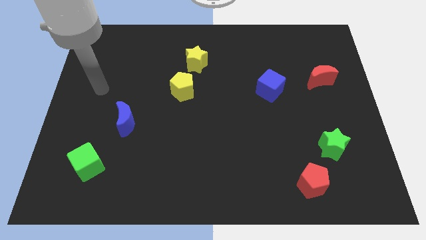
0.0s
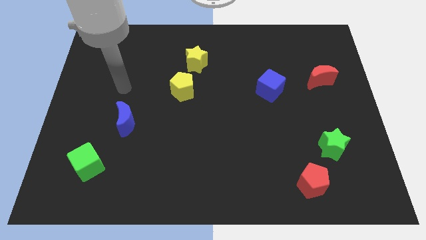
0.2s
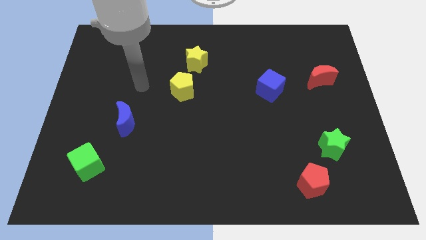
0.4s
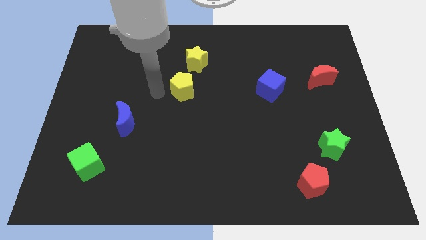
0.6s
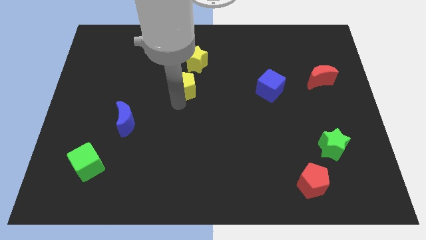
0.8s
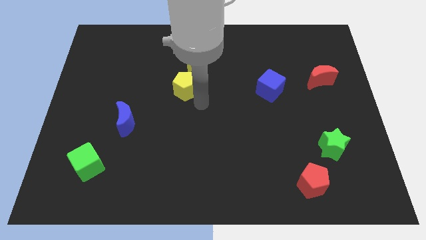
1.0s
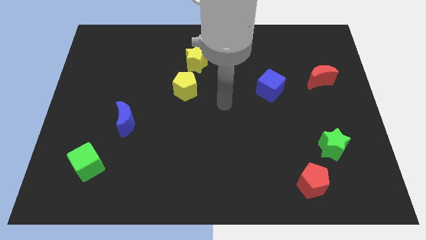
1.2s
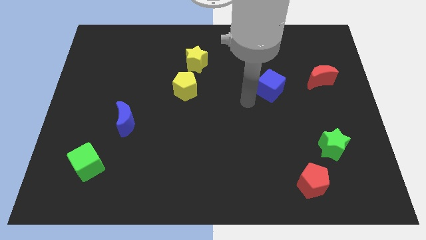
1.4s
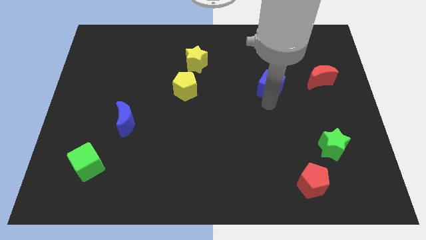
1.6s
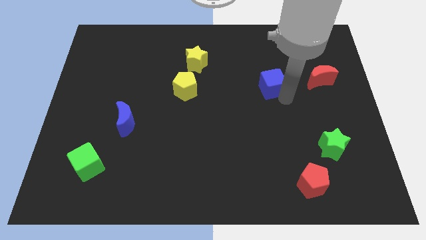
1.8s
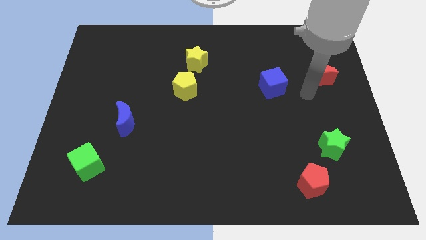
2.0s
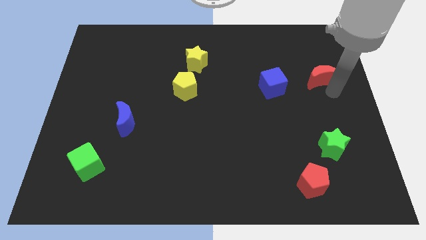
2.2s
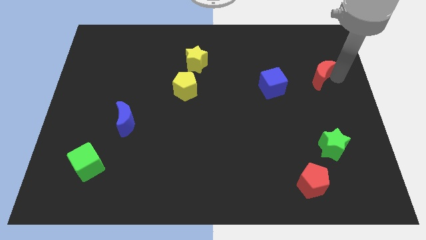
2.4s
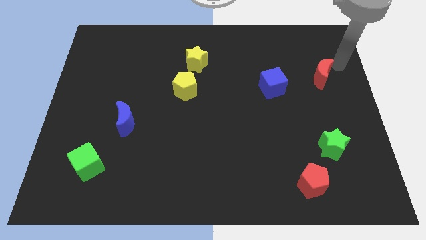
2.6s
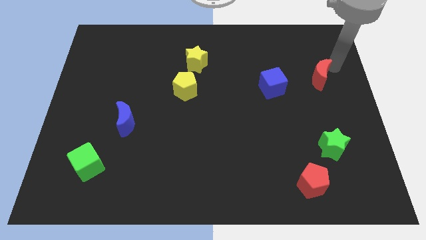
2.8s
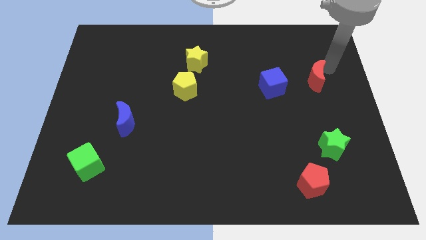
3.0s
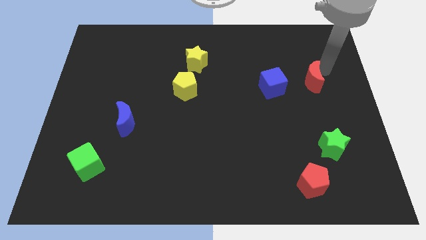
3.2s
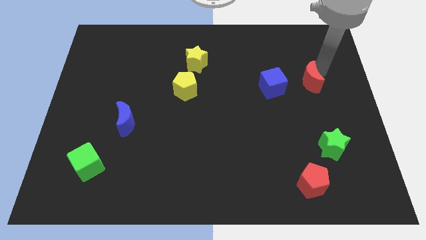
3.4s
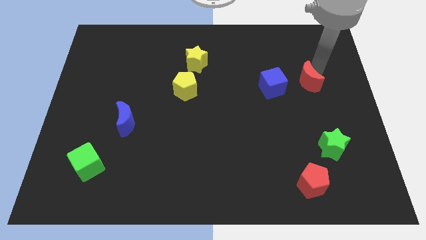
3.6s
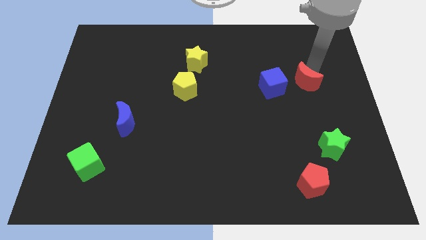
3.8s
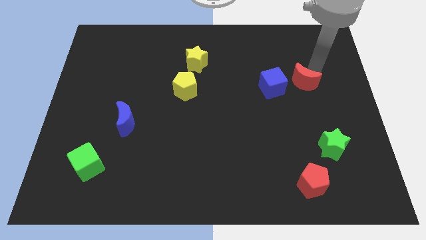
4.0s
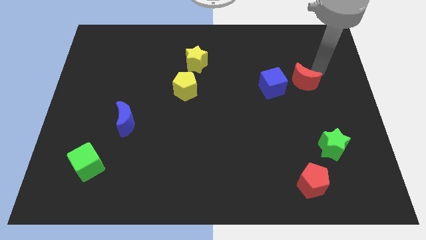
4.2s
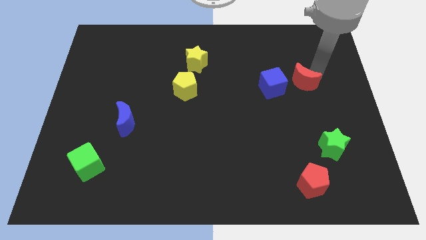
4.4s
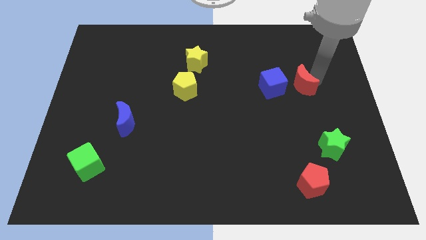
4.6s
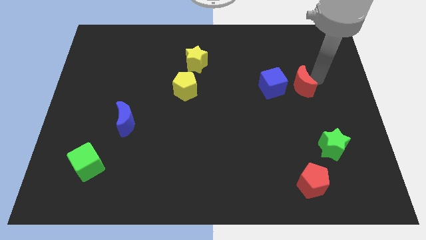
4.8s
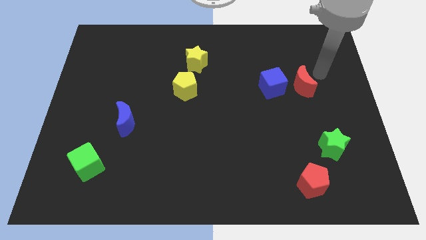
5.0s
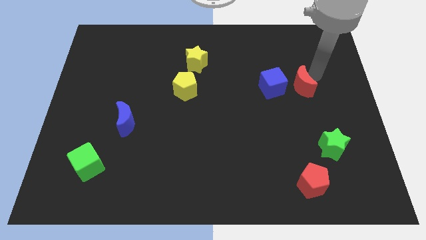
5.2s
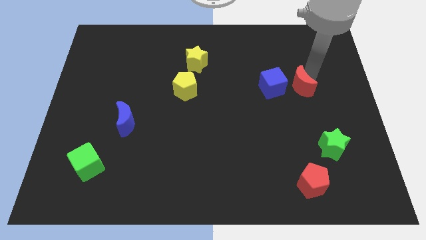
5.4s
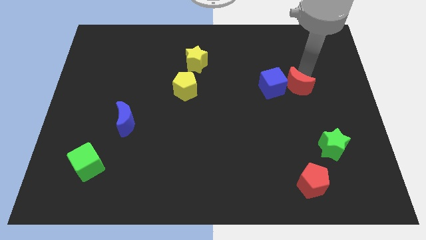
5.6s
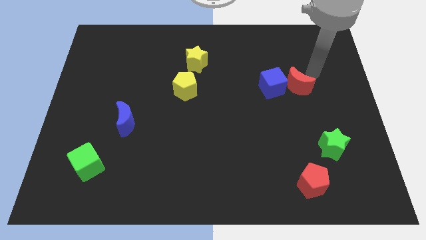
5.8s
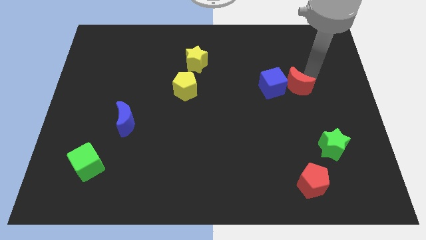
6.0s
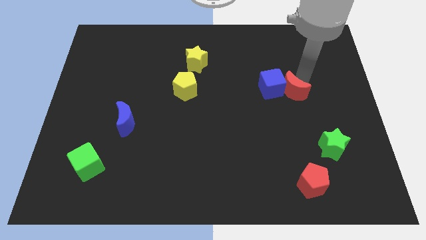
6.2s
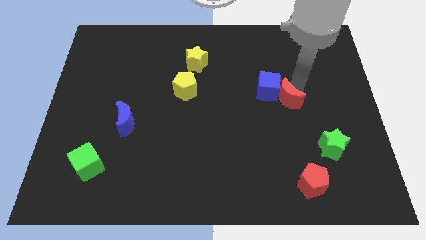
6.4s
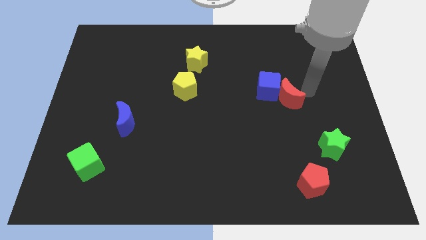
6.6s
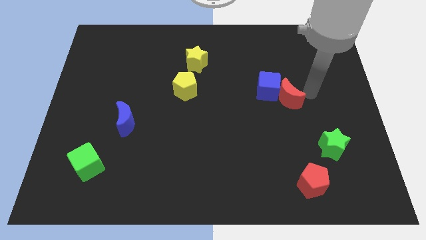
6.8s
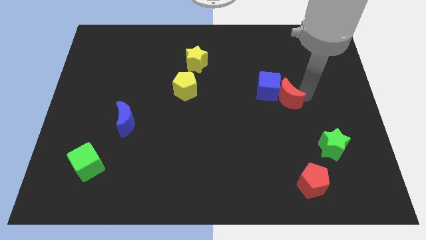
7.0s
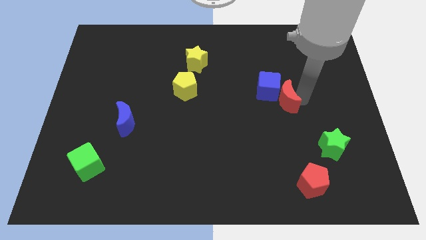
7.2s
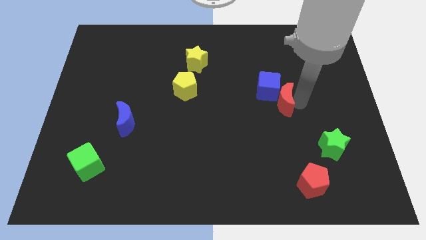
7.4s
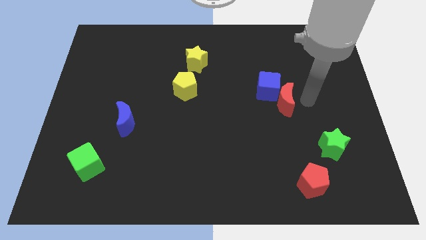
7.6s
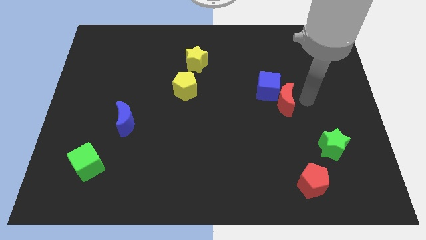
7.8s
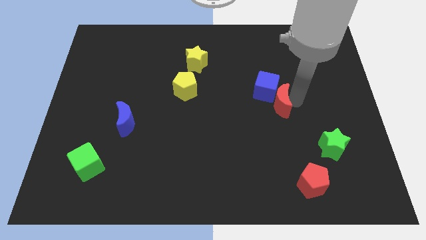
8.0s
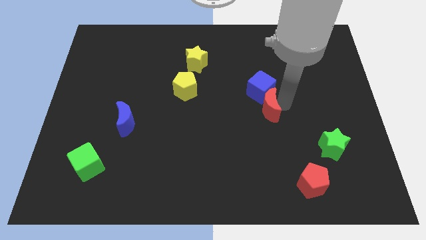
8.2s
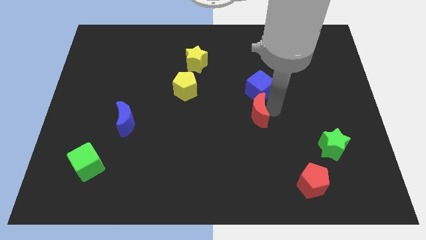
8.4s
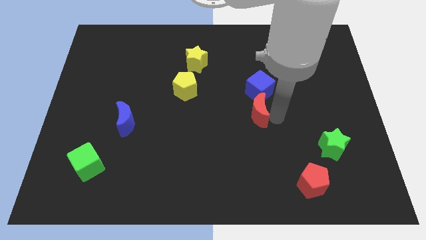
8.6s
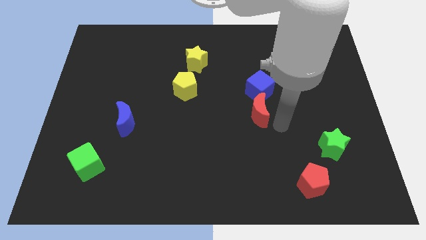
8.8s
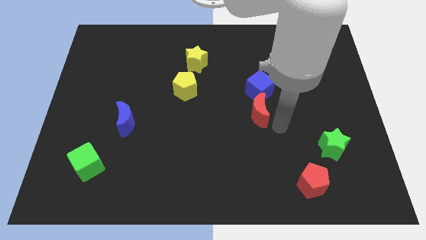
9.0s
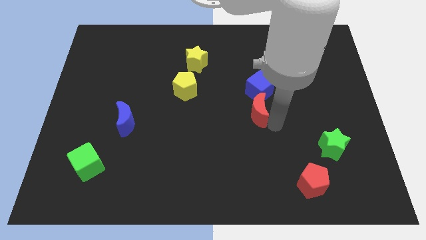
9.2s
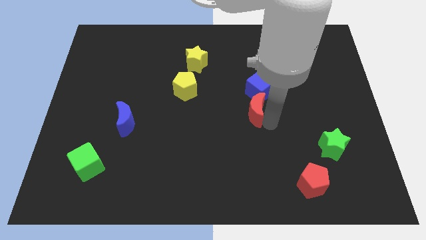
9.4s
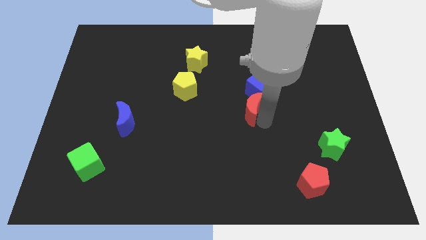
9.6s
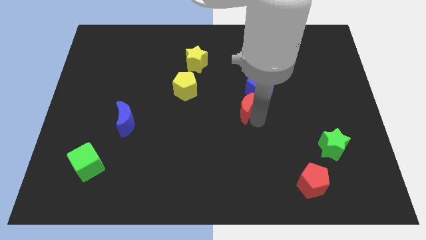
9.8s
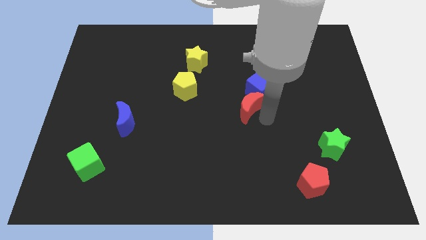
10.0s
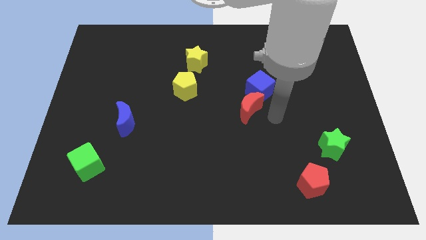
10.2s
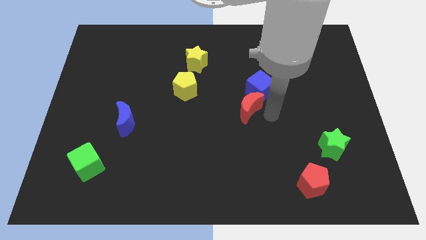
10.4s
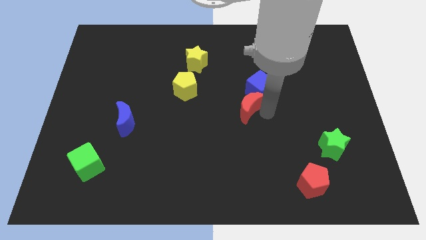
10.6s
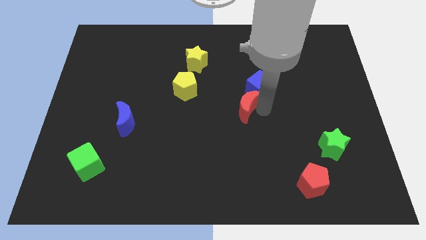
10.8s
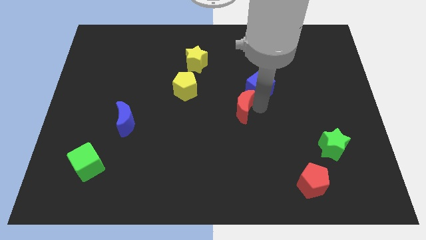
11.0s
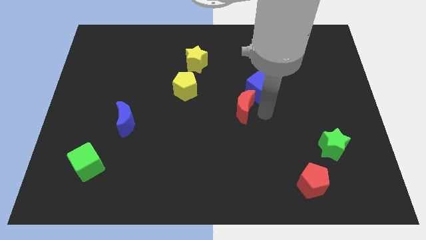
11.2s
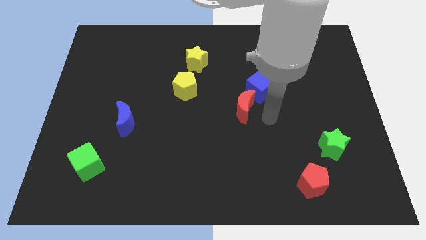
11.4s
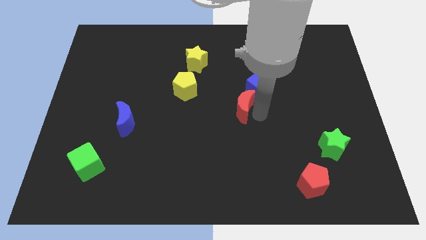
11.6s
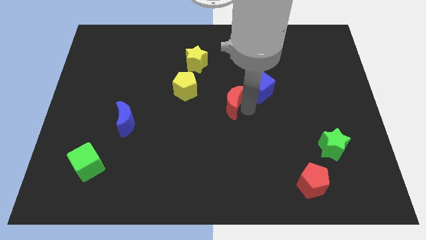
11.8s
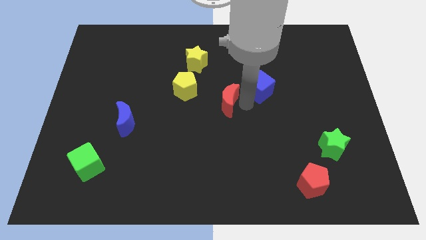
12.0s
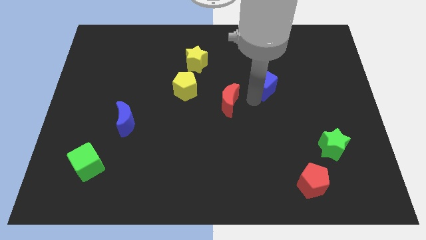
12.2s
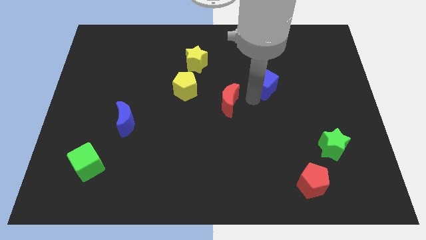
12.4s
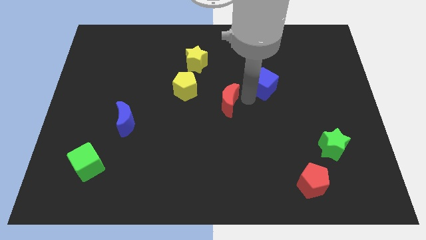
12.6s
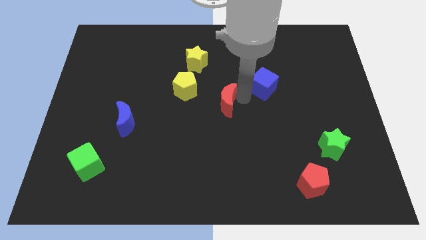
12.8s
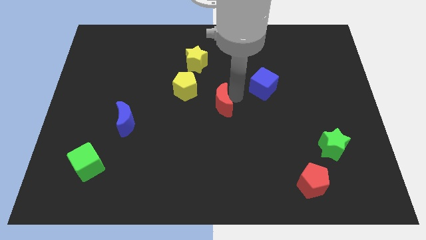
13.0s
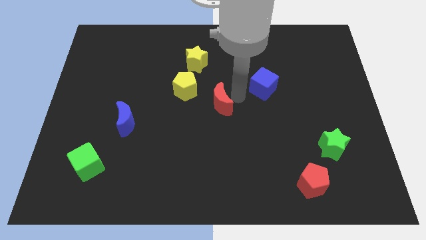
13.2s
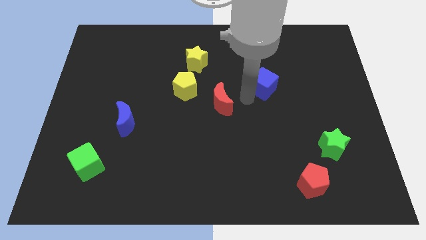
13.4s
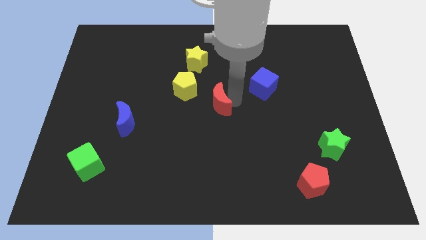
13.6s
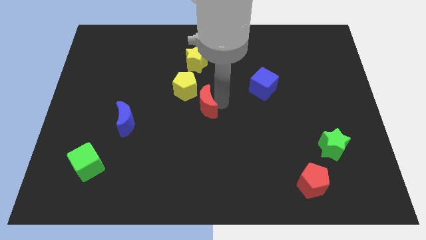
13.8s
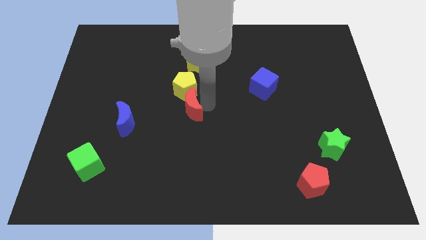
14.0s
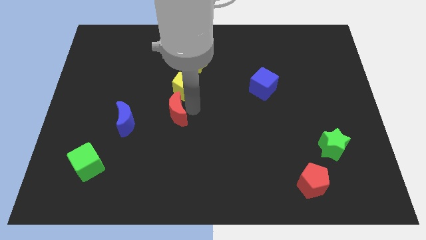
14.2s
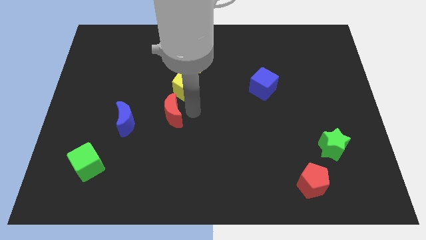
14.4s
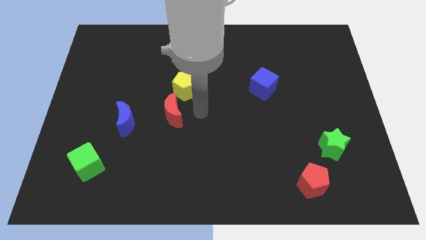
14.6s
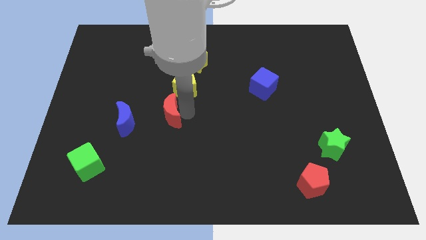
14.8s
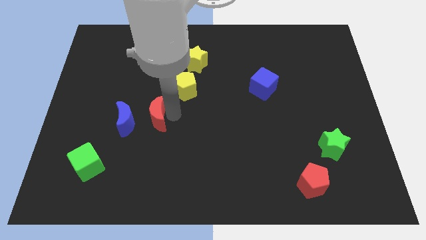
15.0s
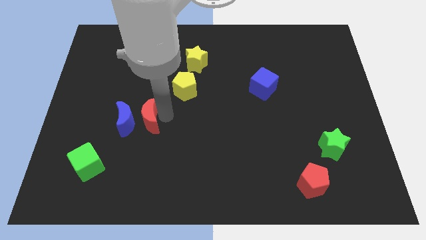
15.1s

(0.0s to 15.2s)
push the red moon towards the blue moon
